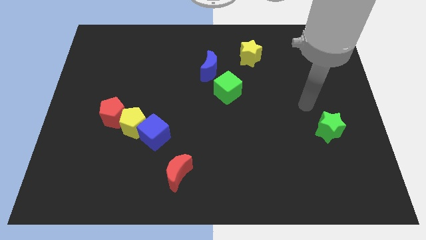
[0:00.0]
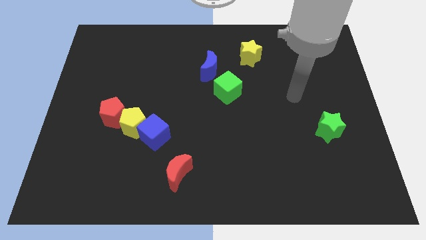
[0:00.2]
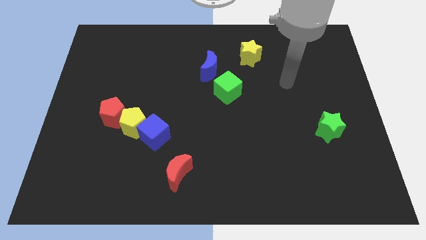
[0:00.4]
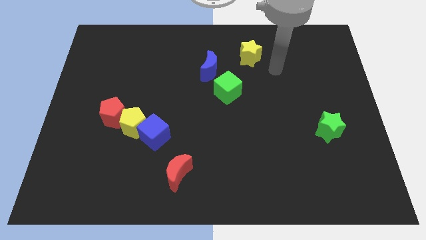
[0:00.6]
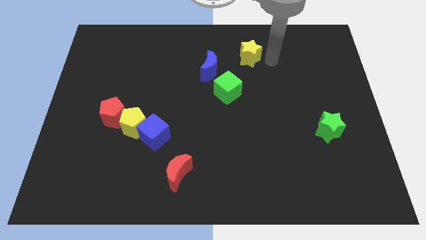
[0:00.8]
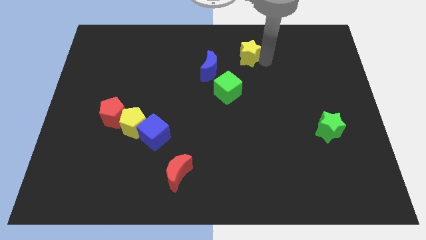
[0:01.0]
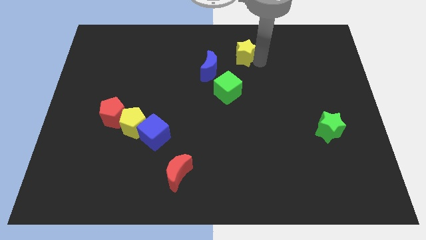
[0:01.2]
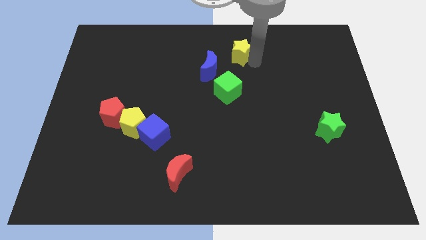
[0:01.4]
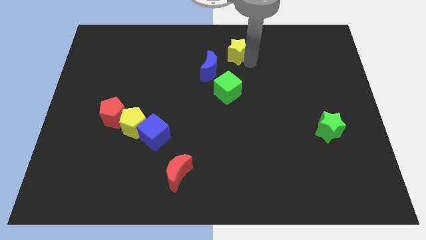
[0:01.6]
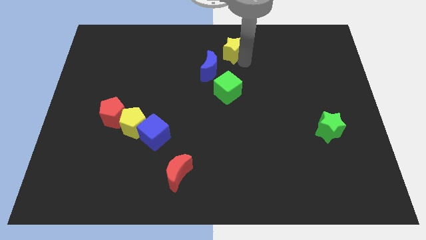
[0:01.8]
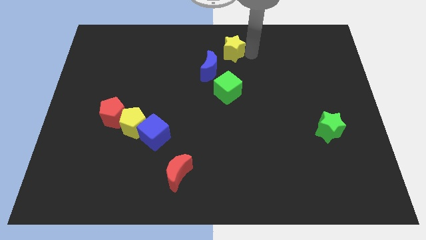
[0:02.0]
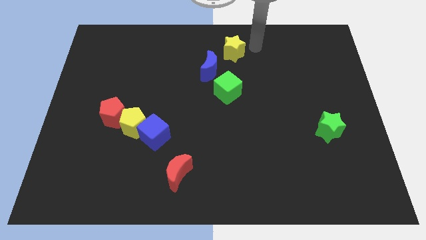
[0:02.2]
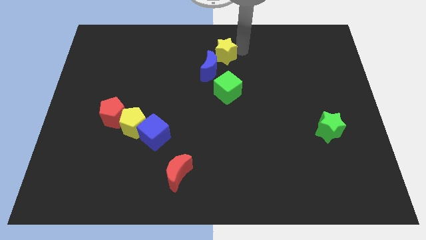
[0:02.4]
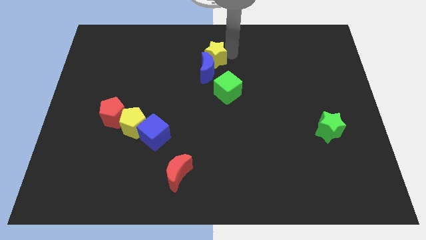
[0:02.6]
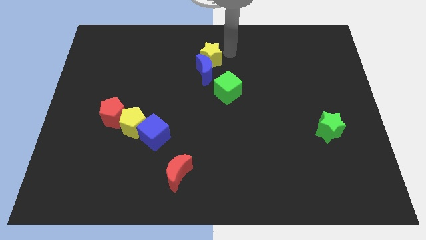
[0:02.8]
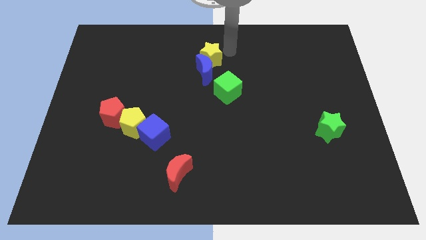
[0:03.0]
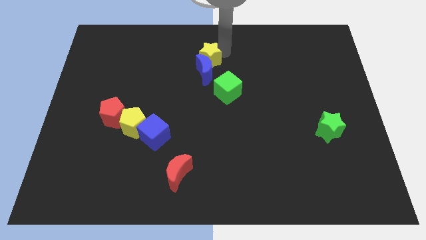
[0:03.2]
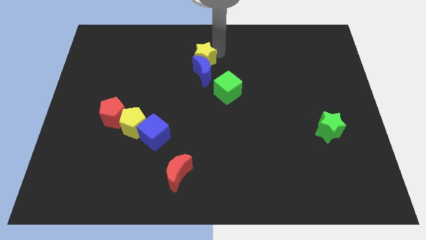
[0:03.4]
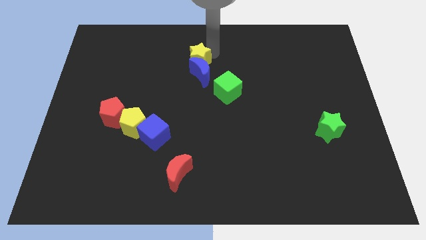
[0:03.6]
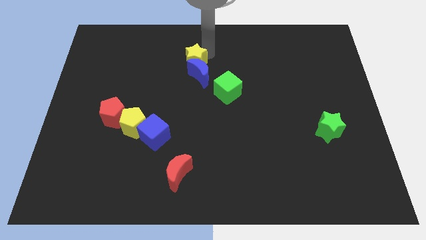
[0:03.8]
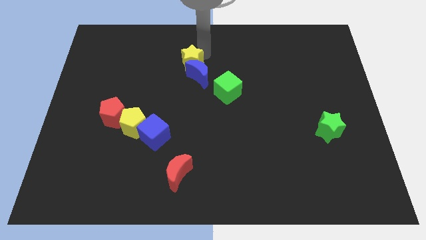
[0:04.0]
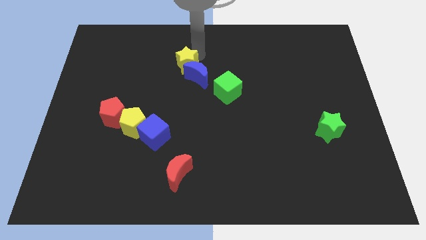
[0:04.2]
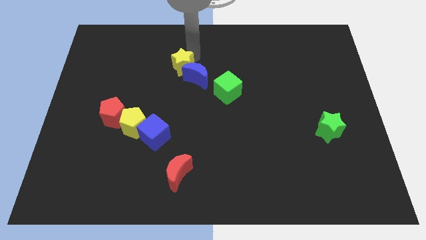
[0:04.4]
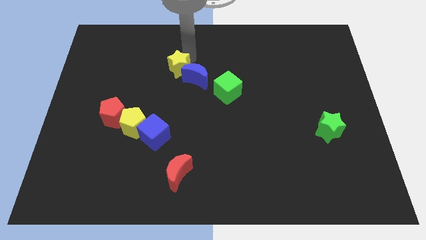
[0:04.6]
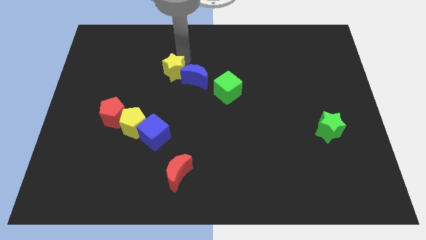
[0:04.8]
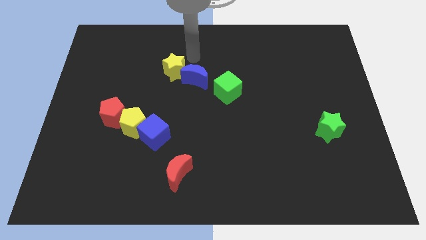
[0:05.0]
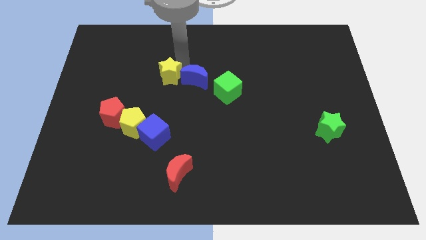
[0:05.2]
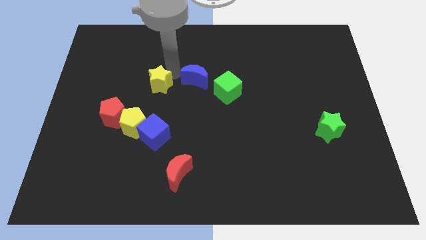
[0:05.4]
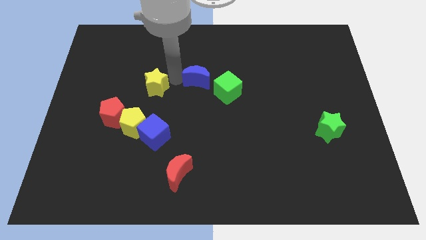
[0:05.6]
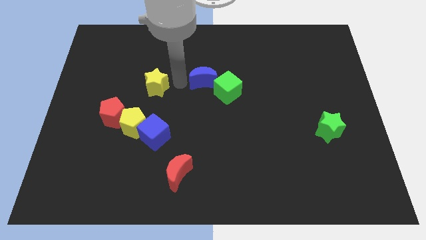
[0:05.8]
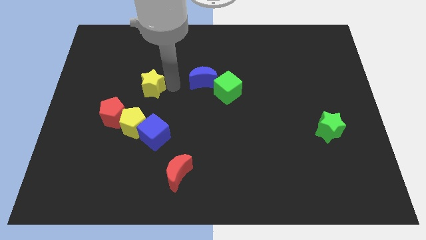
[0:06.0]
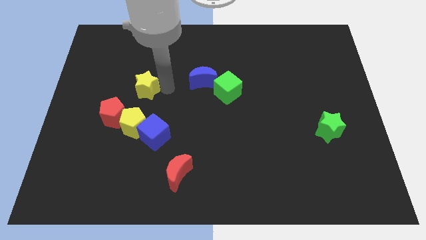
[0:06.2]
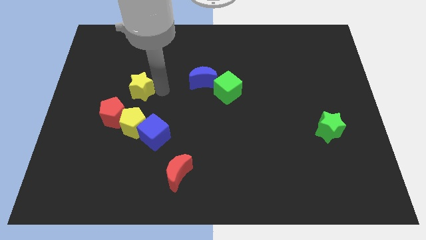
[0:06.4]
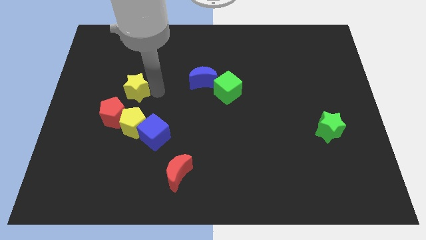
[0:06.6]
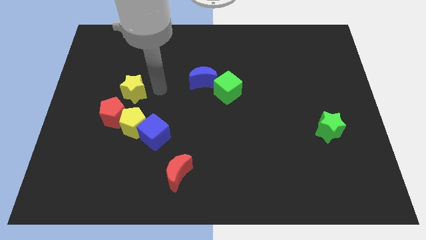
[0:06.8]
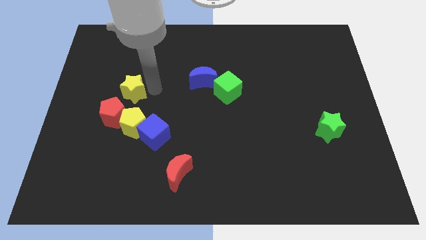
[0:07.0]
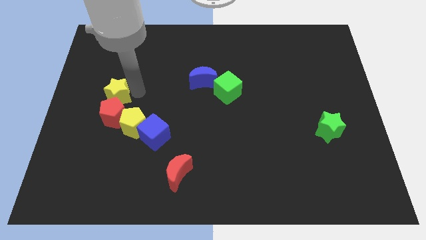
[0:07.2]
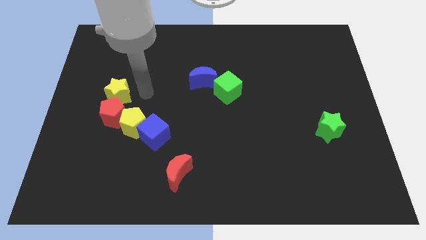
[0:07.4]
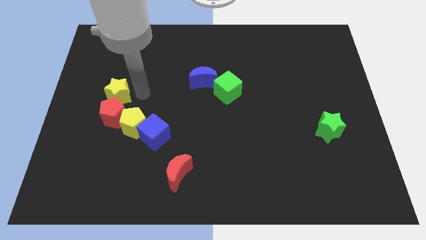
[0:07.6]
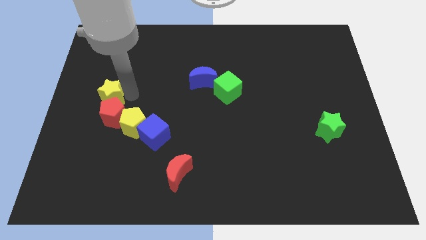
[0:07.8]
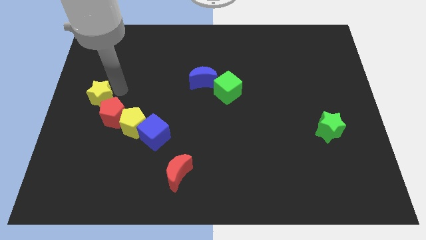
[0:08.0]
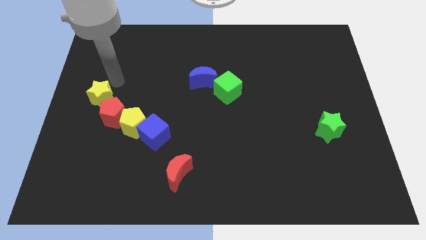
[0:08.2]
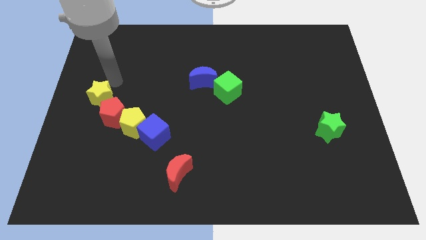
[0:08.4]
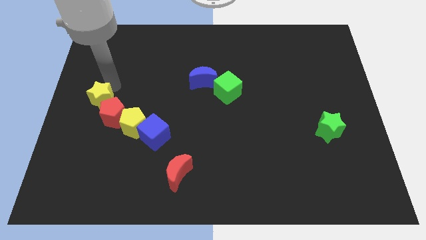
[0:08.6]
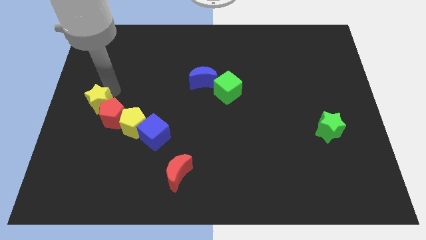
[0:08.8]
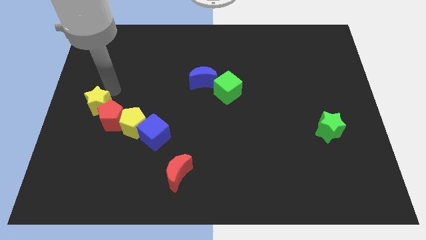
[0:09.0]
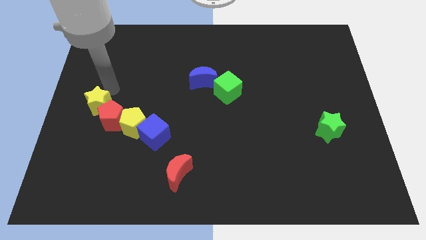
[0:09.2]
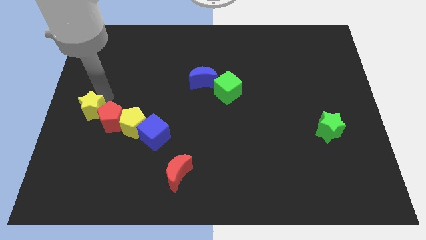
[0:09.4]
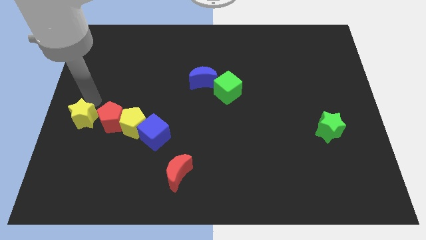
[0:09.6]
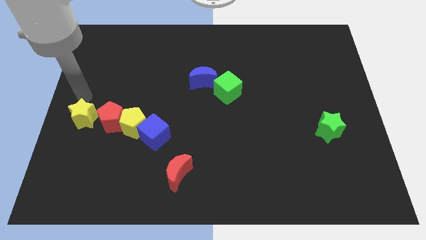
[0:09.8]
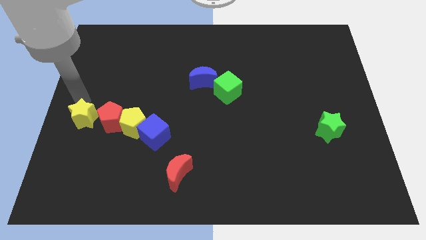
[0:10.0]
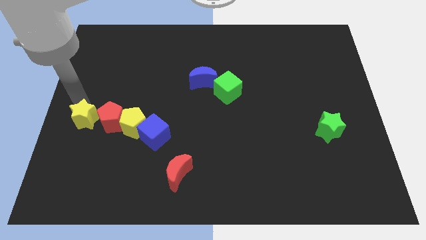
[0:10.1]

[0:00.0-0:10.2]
move the yellow star to the bottom left of the red pentagon

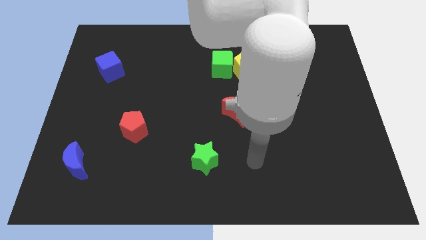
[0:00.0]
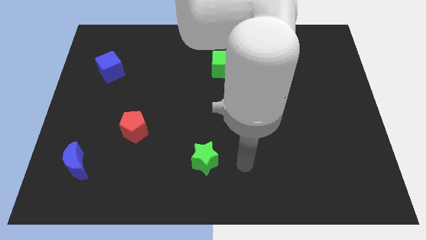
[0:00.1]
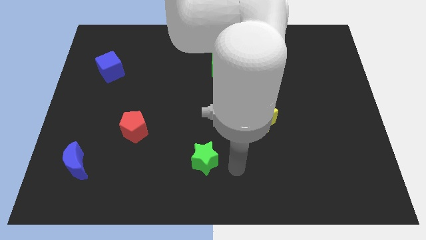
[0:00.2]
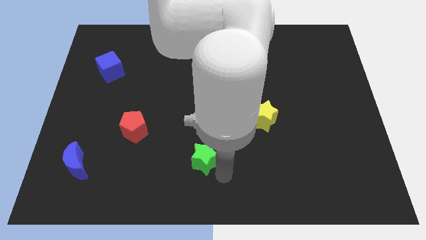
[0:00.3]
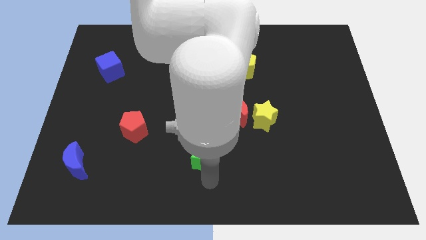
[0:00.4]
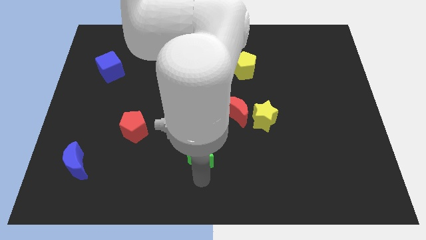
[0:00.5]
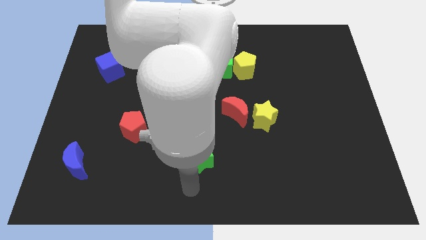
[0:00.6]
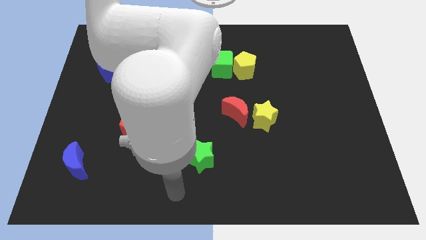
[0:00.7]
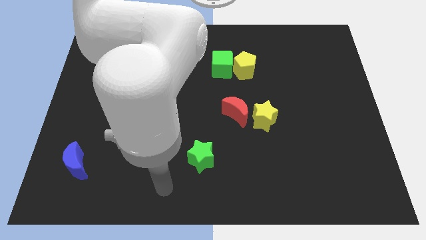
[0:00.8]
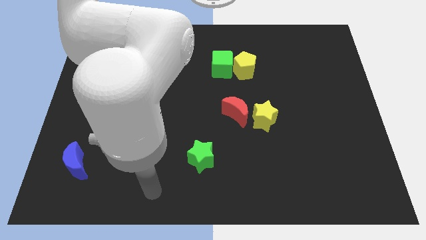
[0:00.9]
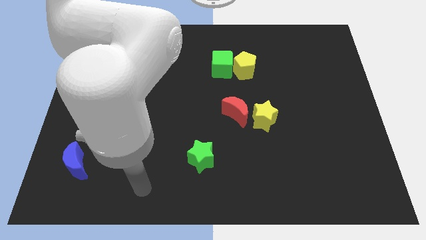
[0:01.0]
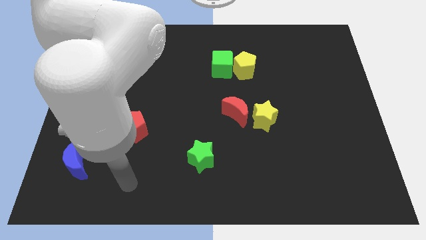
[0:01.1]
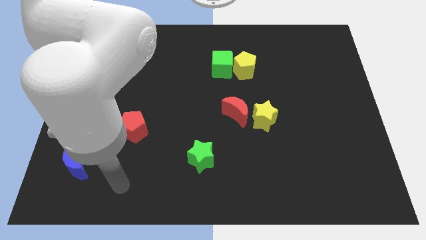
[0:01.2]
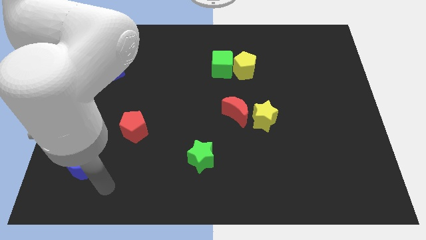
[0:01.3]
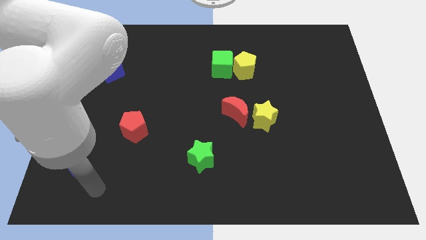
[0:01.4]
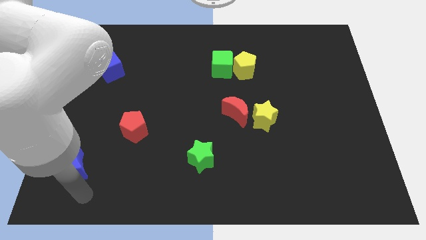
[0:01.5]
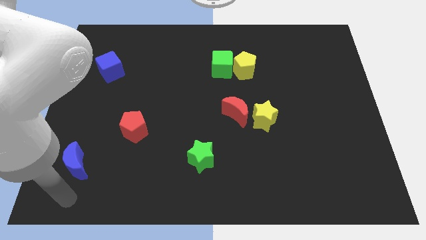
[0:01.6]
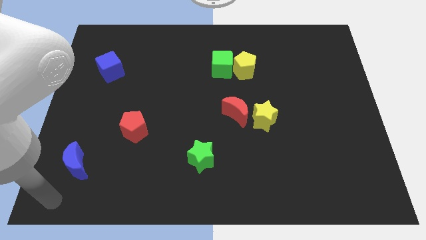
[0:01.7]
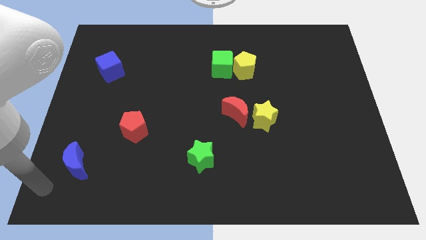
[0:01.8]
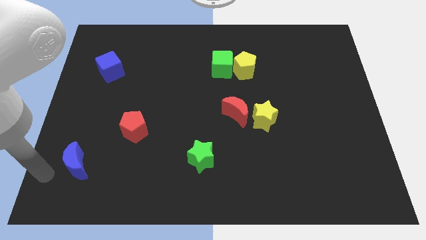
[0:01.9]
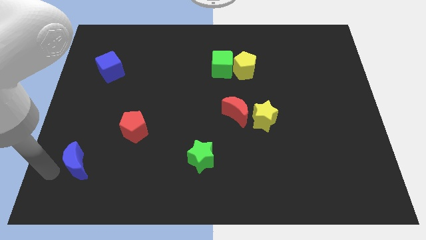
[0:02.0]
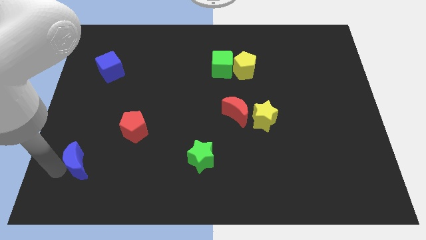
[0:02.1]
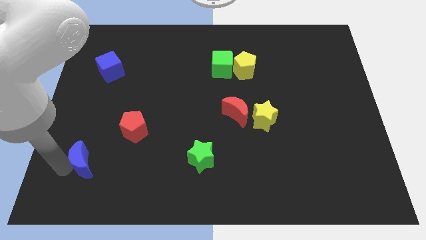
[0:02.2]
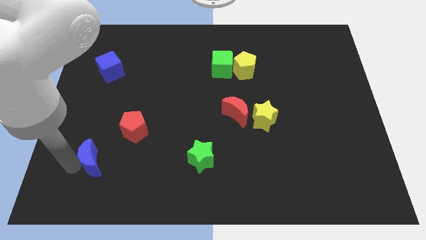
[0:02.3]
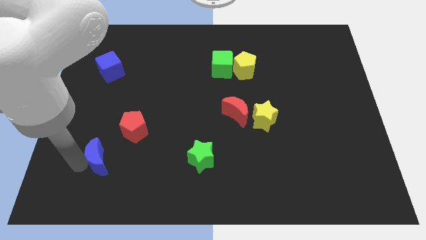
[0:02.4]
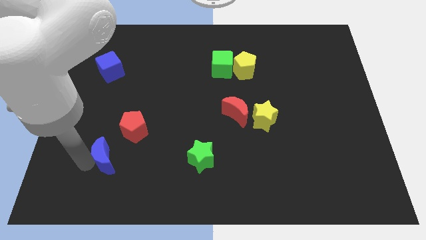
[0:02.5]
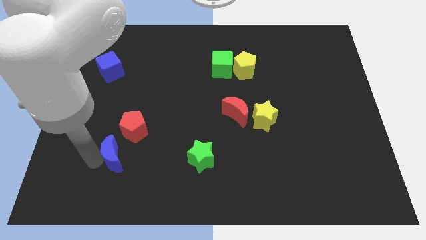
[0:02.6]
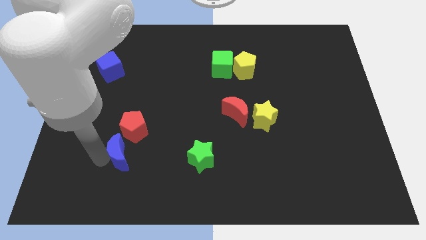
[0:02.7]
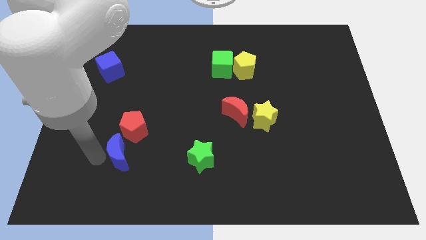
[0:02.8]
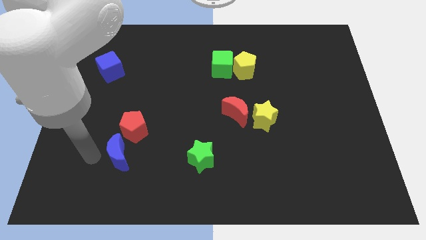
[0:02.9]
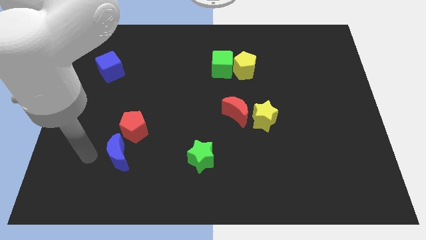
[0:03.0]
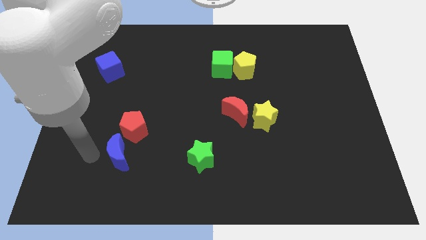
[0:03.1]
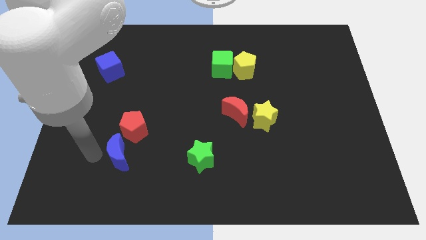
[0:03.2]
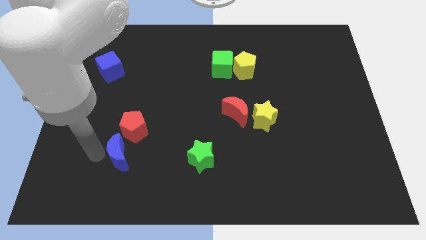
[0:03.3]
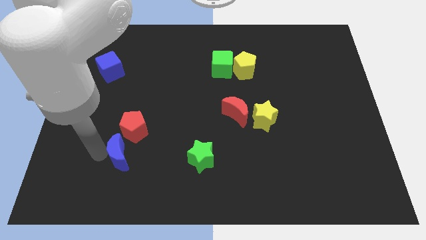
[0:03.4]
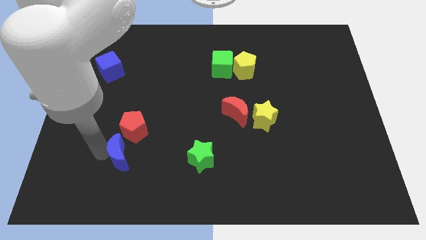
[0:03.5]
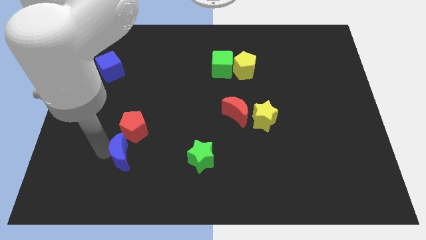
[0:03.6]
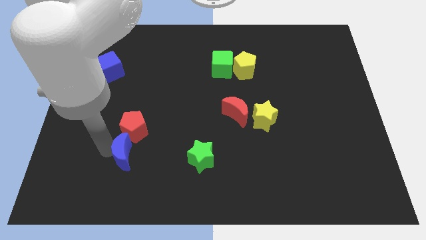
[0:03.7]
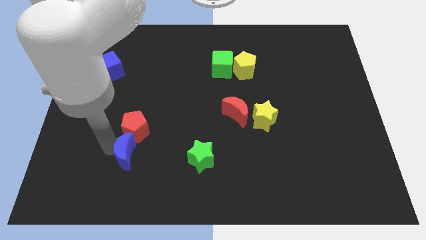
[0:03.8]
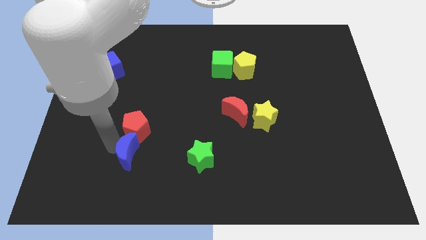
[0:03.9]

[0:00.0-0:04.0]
move the blue moon just left of the green star
